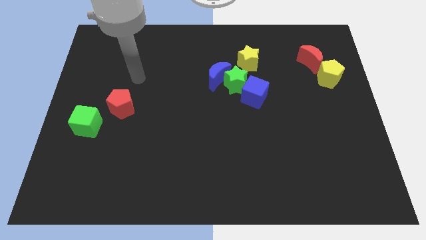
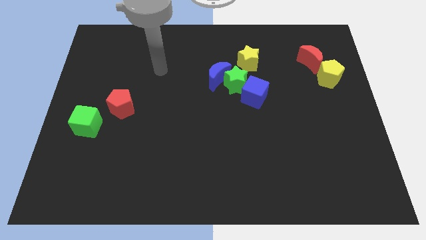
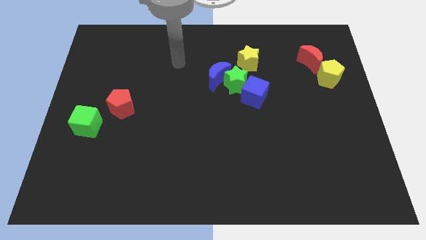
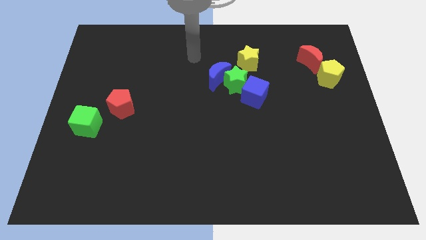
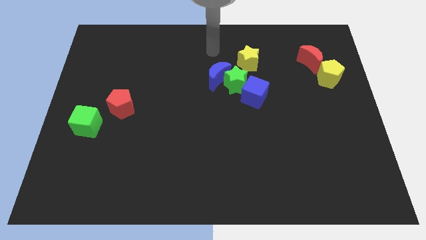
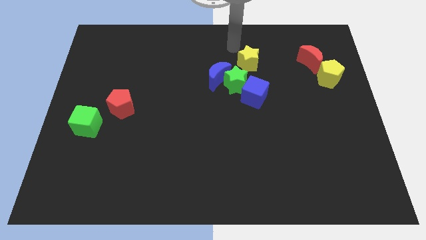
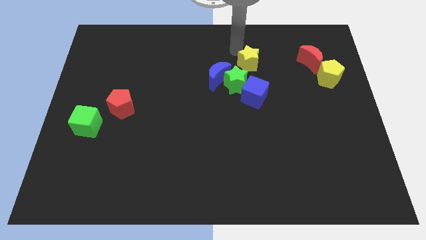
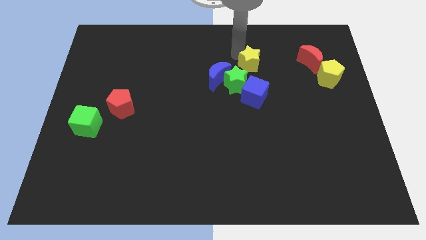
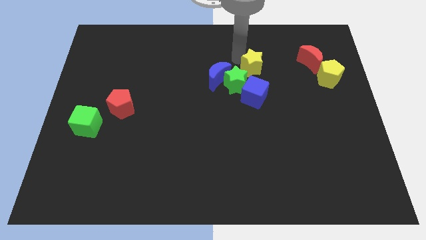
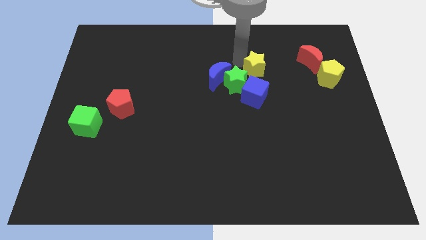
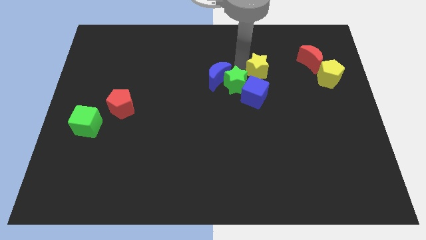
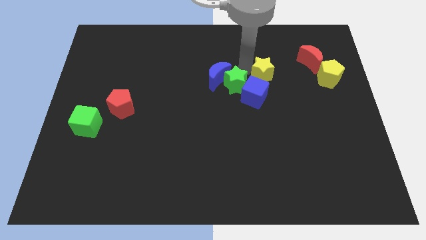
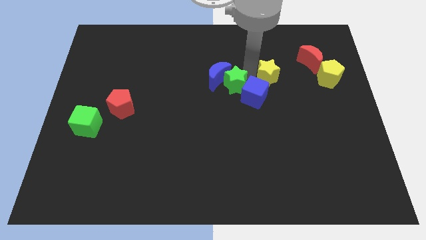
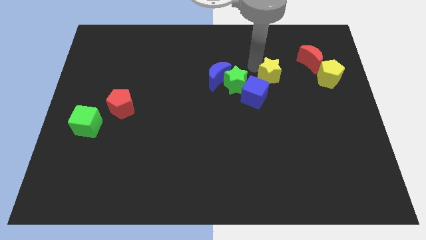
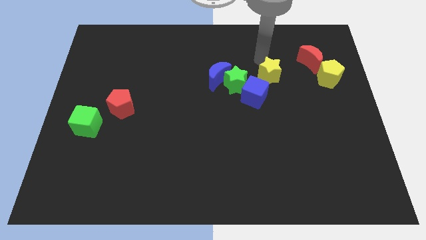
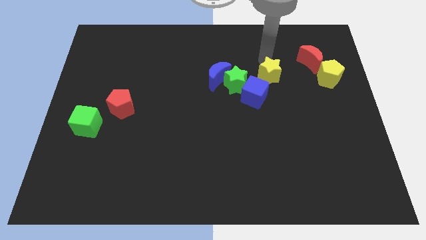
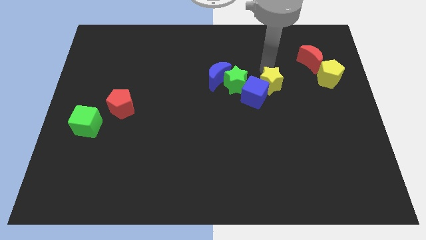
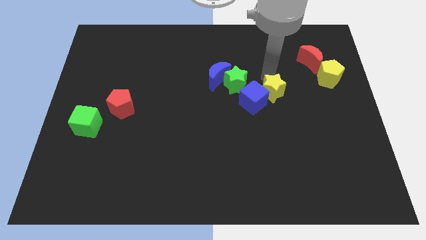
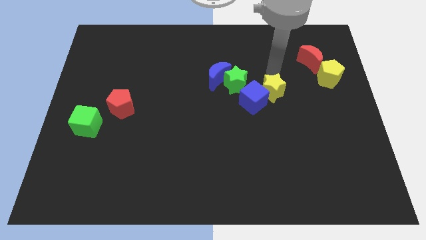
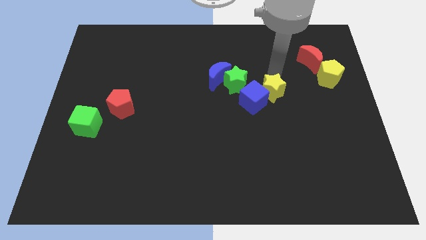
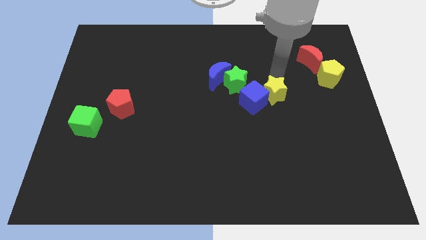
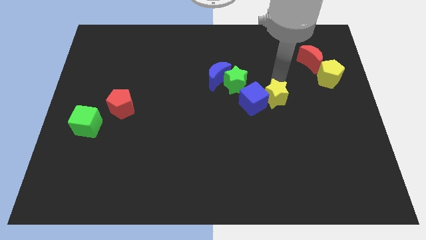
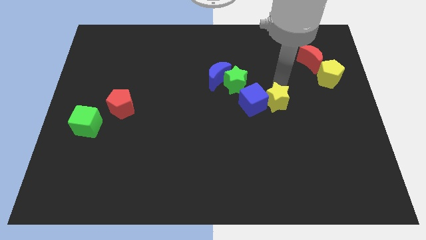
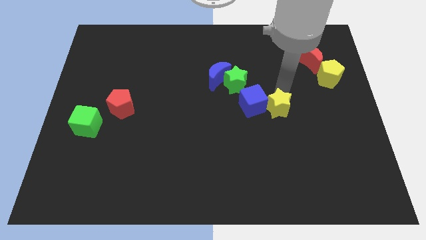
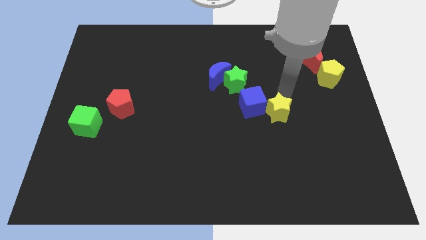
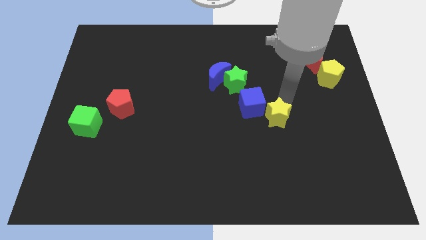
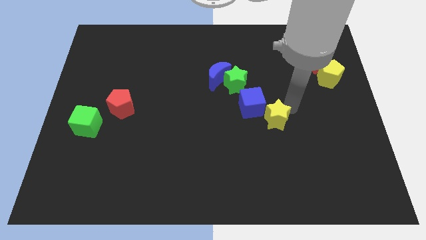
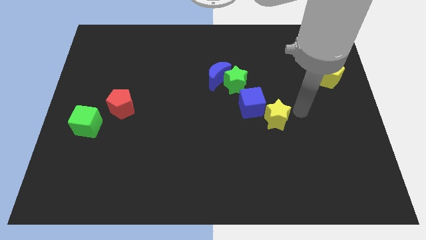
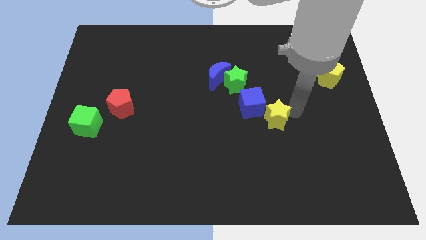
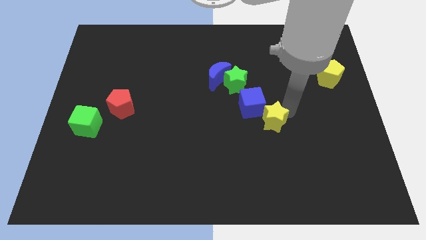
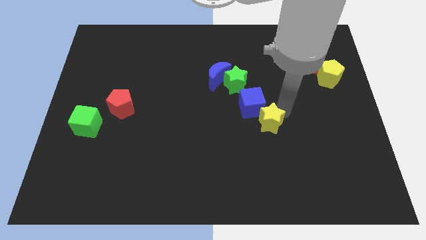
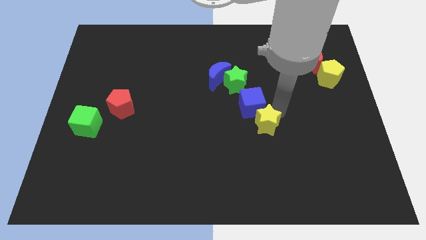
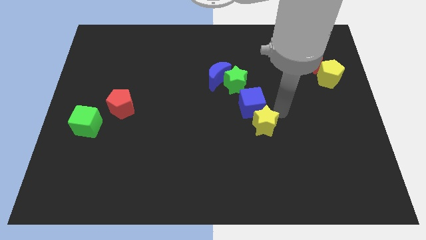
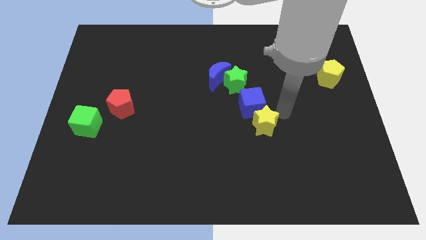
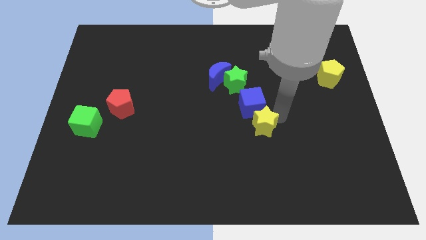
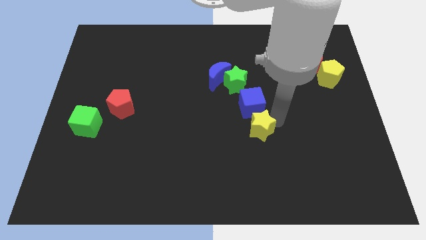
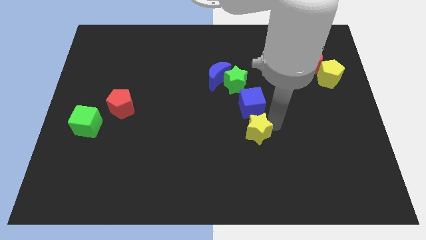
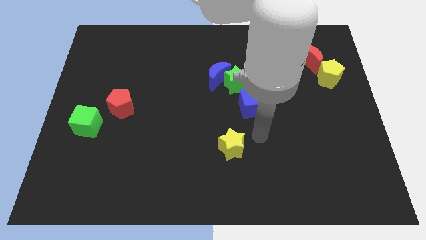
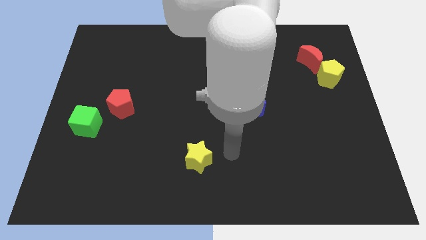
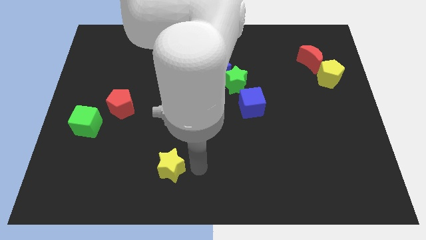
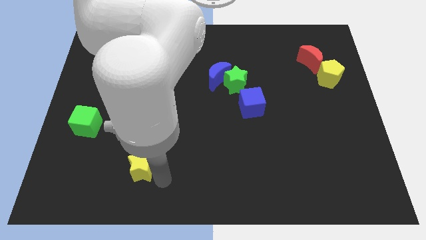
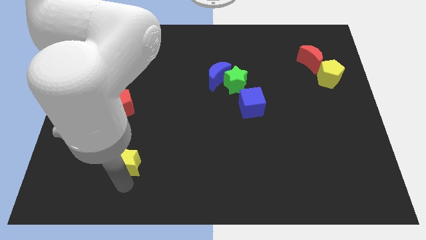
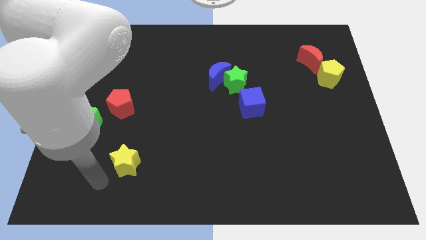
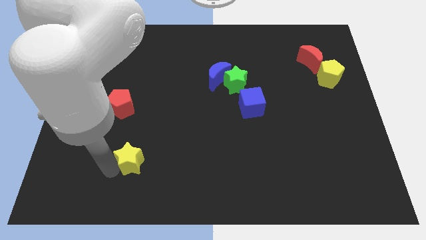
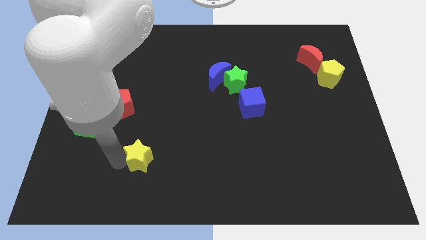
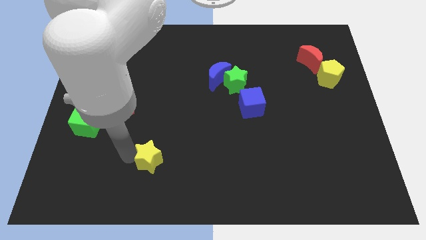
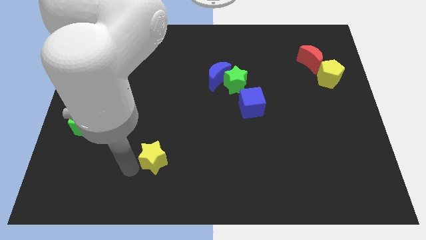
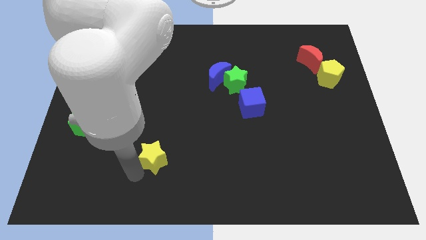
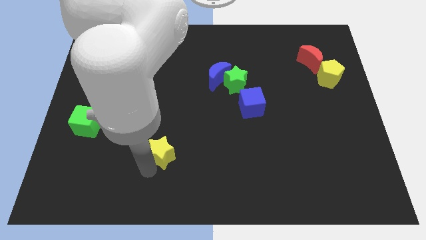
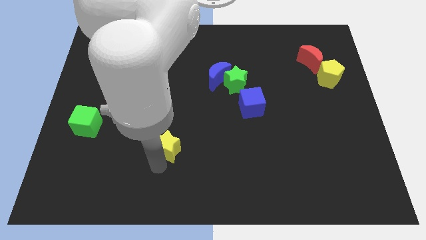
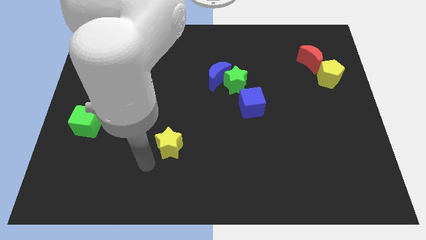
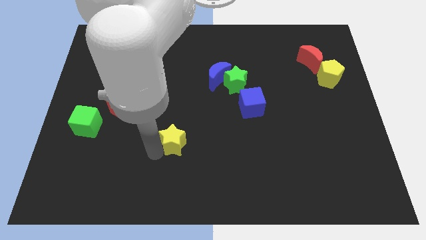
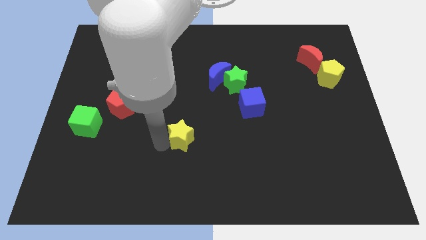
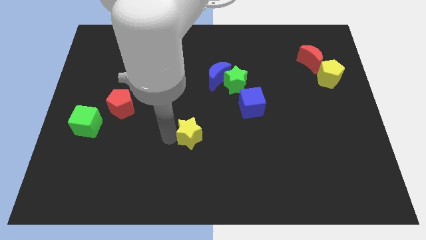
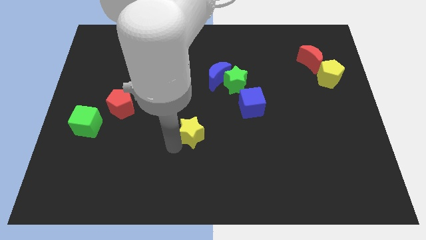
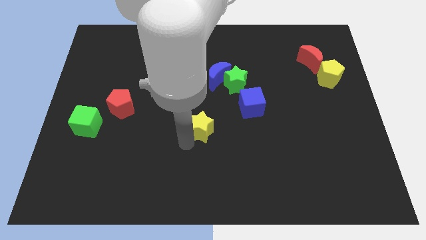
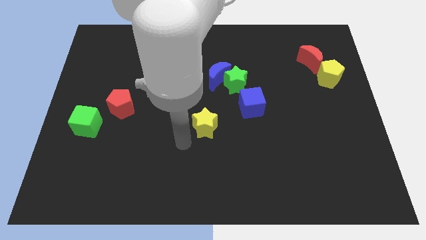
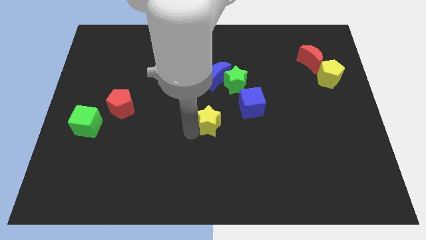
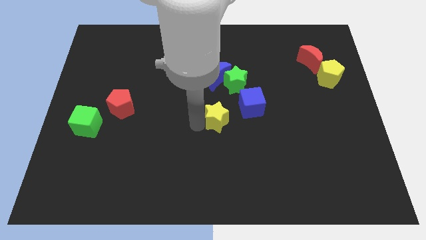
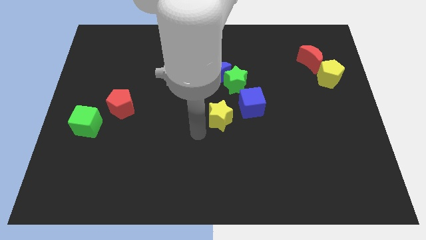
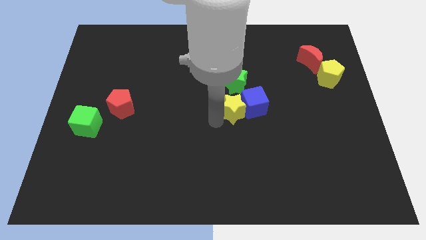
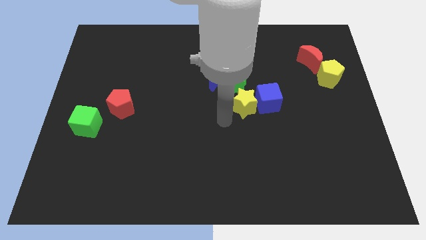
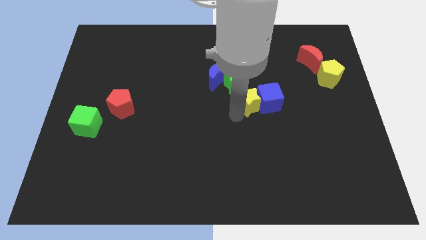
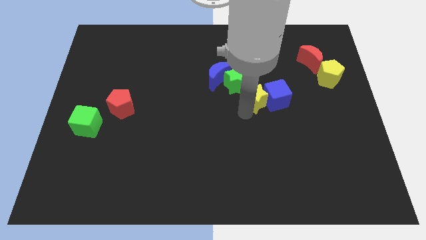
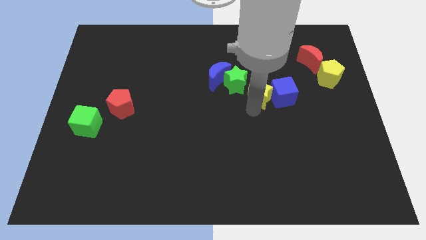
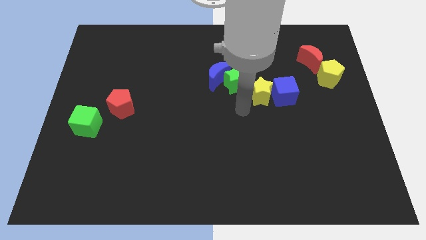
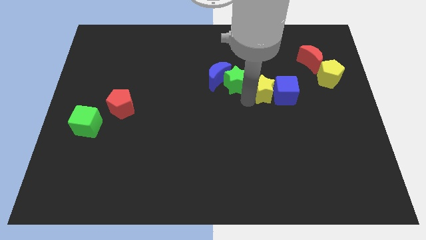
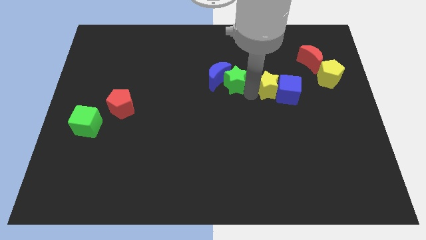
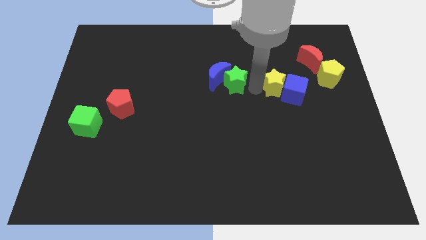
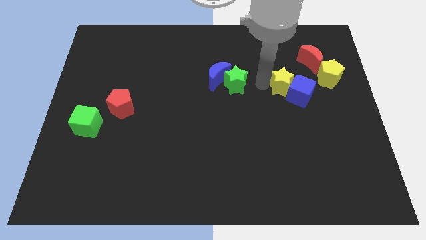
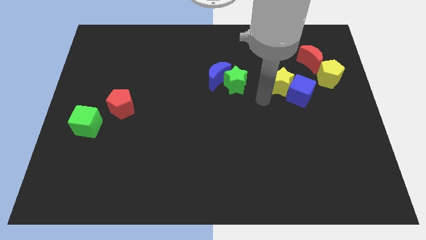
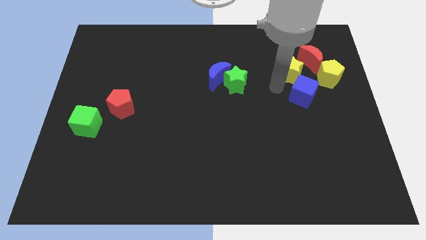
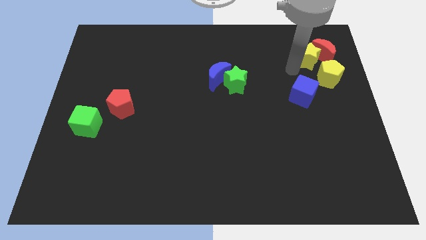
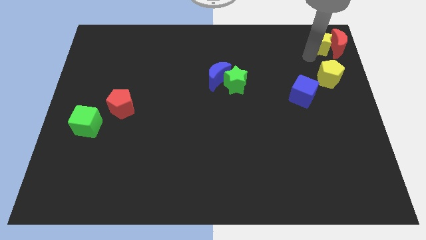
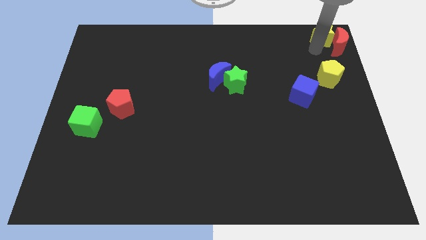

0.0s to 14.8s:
move the yellow star to the top right
